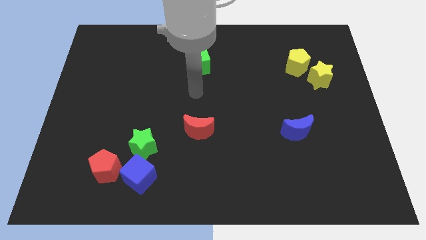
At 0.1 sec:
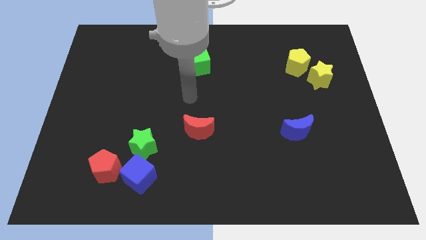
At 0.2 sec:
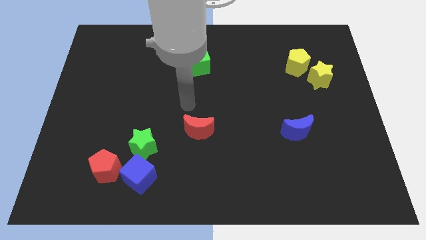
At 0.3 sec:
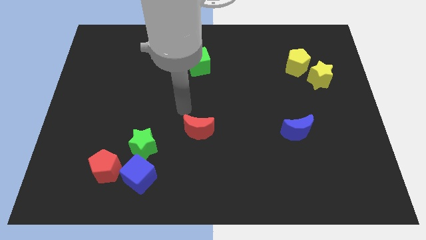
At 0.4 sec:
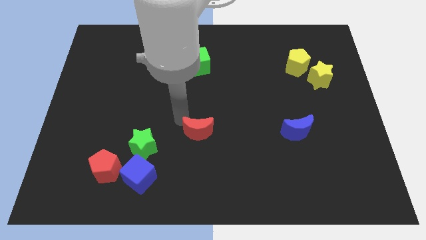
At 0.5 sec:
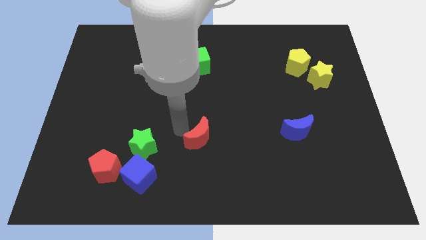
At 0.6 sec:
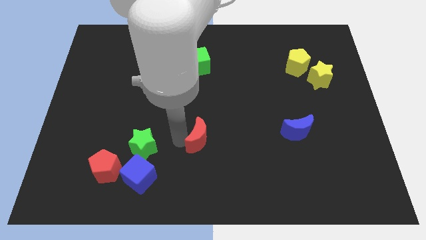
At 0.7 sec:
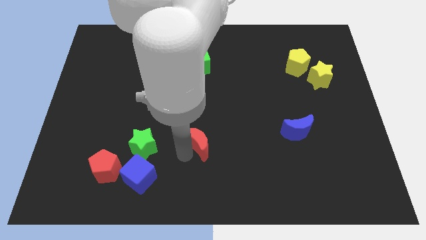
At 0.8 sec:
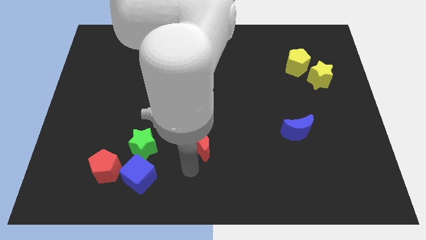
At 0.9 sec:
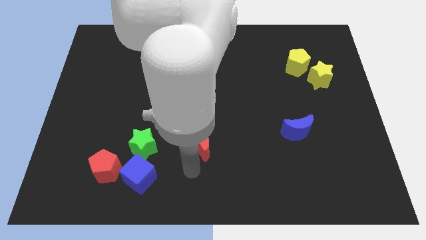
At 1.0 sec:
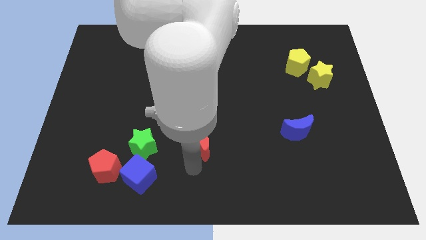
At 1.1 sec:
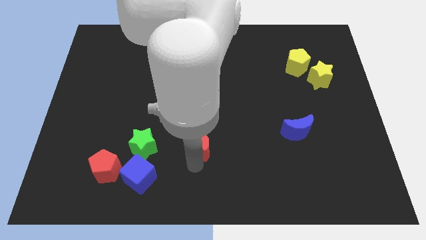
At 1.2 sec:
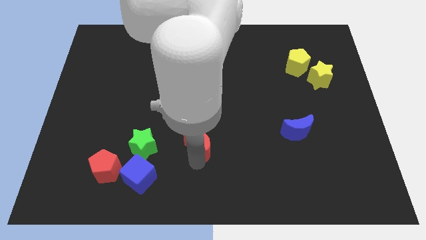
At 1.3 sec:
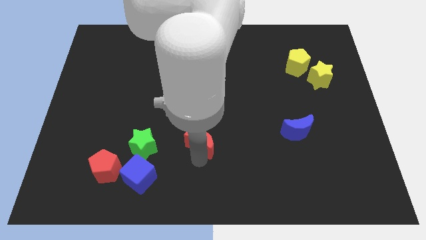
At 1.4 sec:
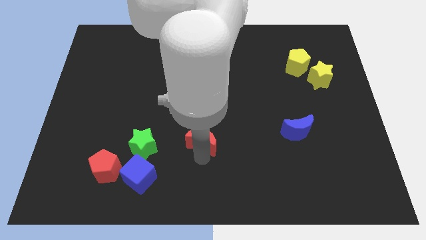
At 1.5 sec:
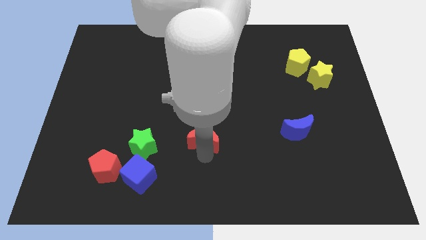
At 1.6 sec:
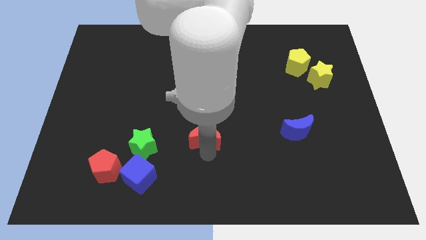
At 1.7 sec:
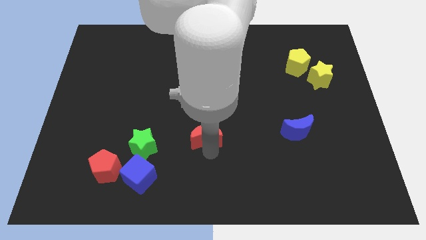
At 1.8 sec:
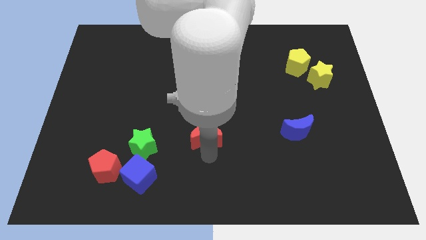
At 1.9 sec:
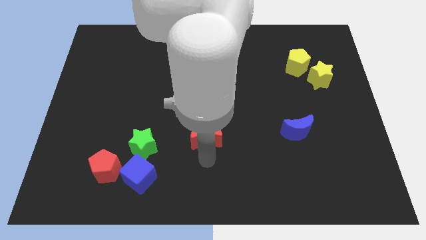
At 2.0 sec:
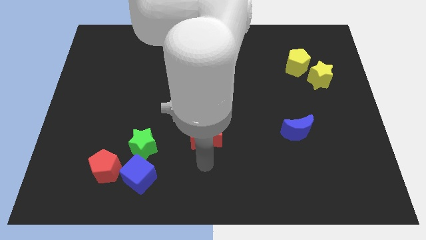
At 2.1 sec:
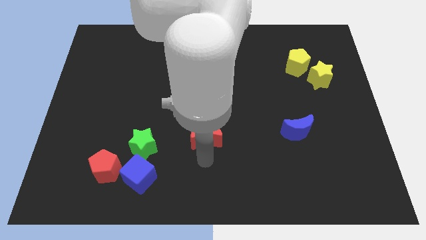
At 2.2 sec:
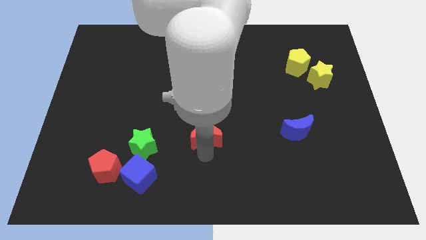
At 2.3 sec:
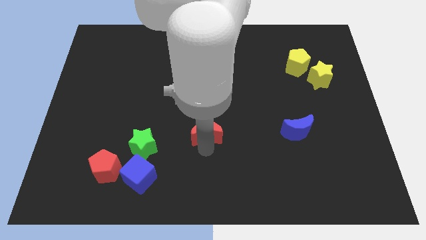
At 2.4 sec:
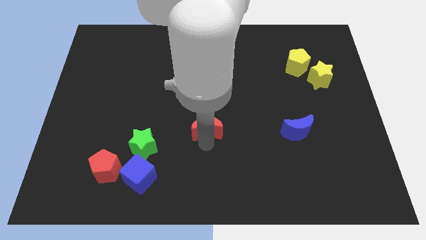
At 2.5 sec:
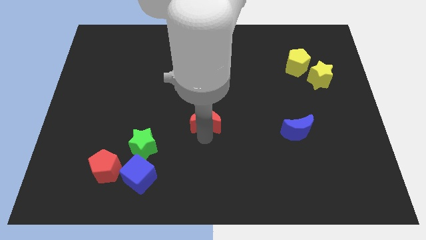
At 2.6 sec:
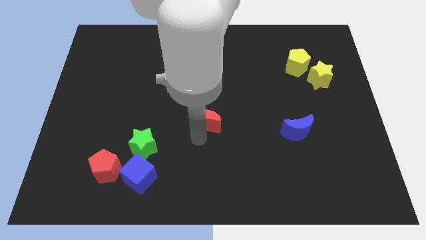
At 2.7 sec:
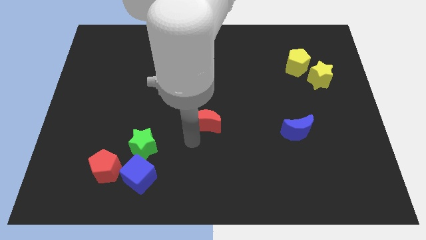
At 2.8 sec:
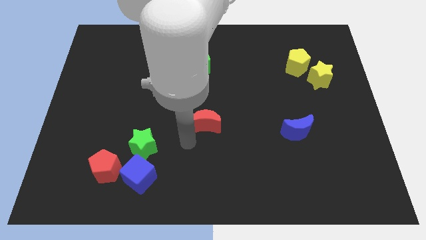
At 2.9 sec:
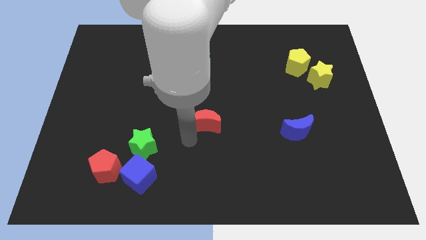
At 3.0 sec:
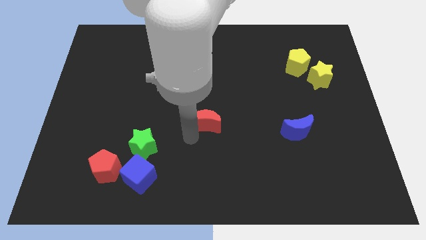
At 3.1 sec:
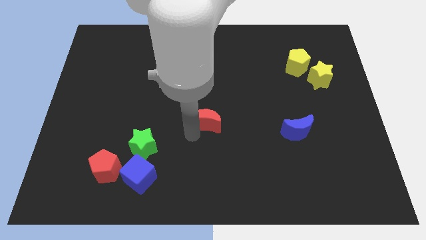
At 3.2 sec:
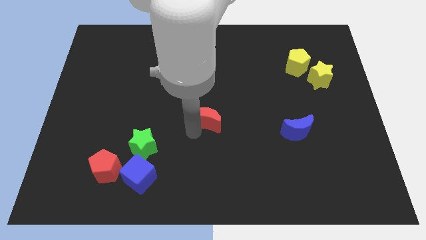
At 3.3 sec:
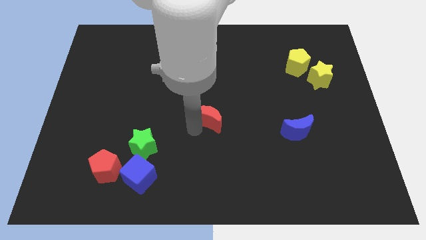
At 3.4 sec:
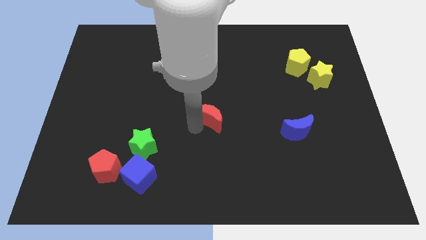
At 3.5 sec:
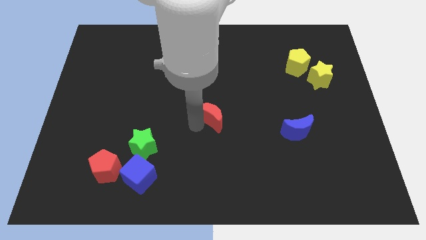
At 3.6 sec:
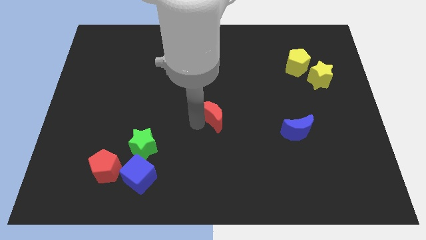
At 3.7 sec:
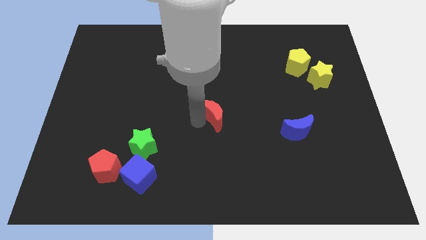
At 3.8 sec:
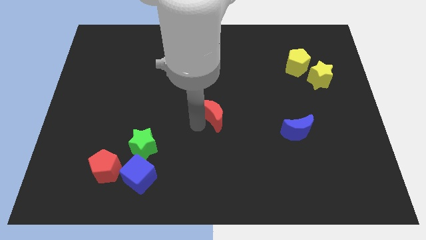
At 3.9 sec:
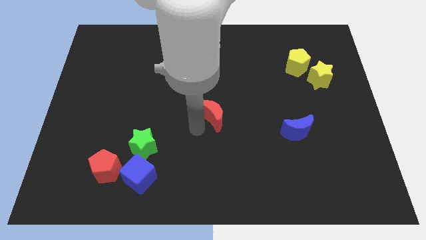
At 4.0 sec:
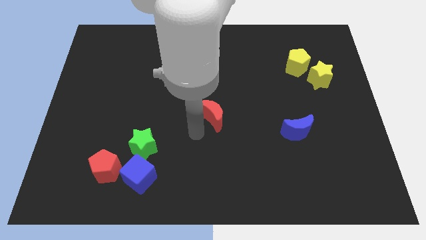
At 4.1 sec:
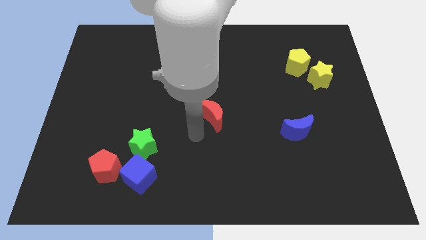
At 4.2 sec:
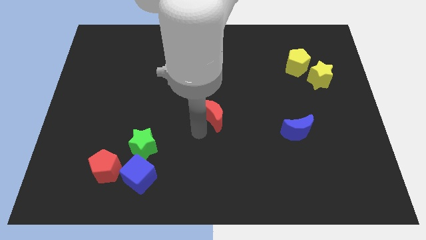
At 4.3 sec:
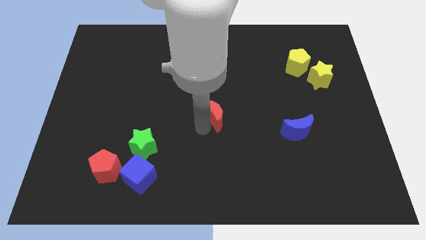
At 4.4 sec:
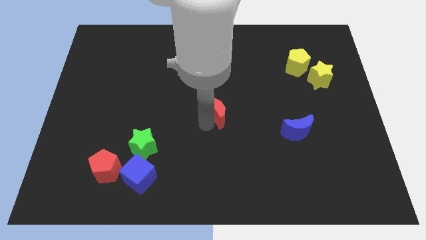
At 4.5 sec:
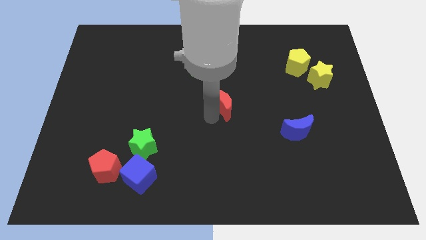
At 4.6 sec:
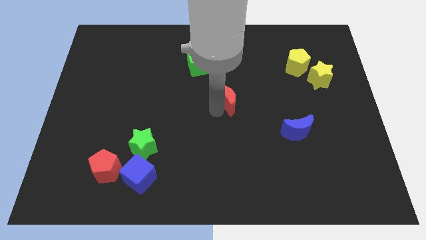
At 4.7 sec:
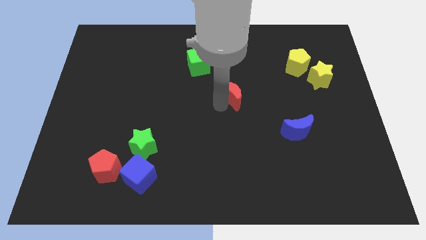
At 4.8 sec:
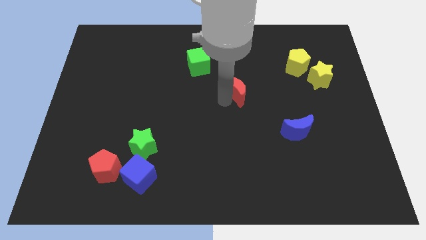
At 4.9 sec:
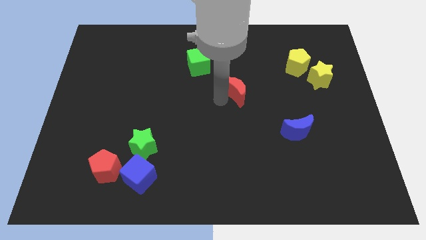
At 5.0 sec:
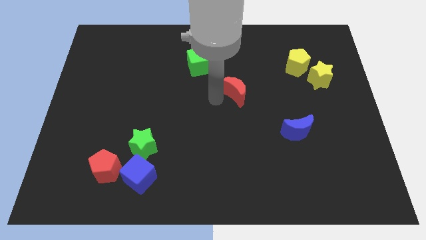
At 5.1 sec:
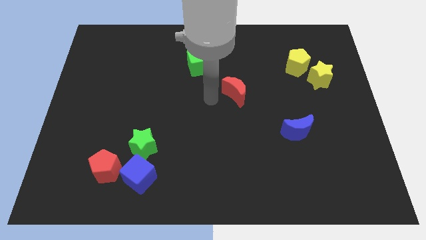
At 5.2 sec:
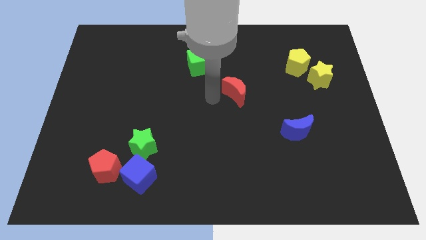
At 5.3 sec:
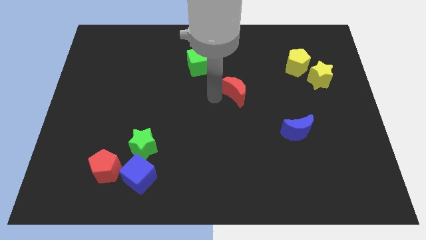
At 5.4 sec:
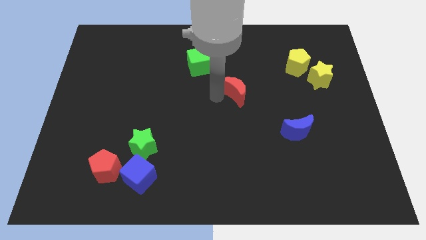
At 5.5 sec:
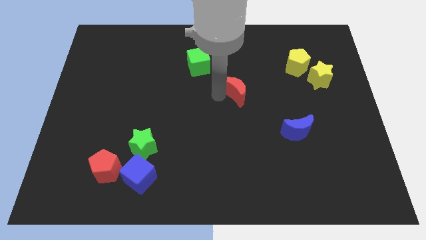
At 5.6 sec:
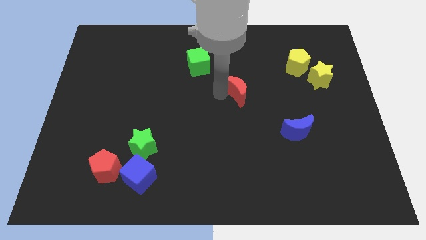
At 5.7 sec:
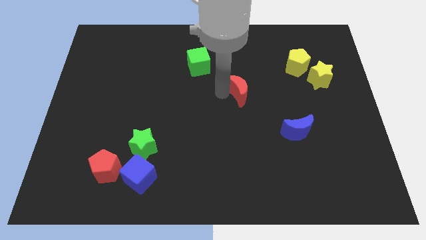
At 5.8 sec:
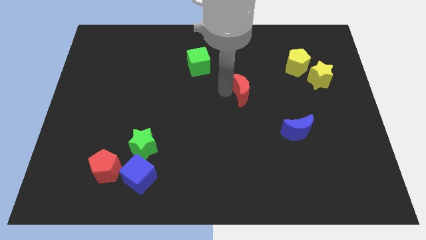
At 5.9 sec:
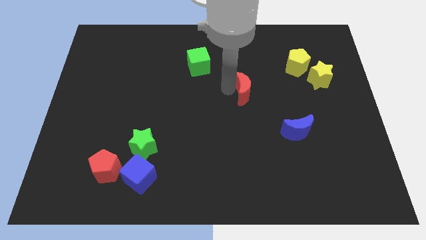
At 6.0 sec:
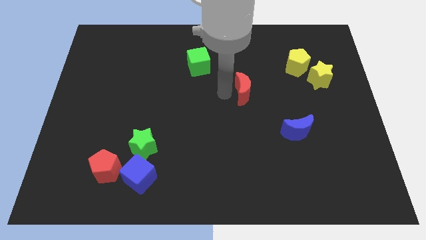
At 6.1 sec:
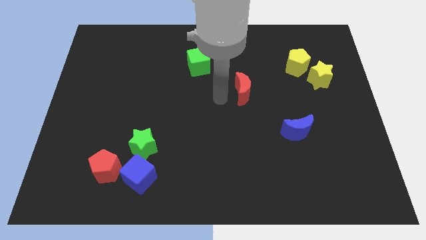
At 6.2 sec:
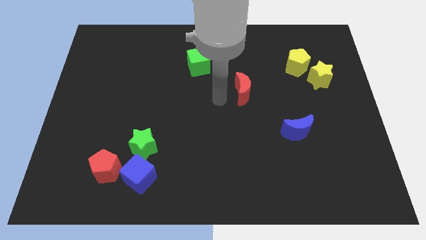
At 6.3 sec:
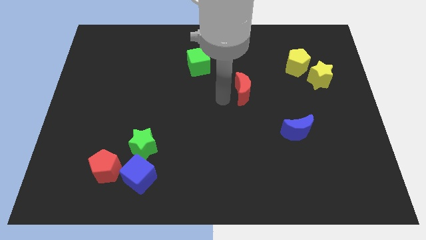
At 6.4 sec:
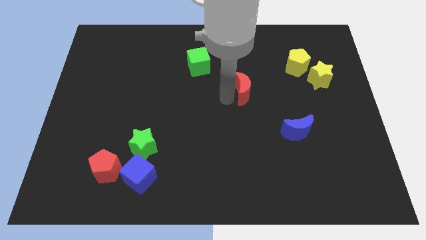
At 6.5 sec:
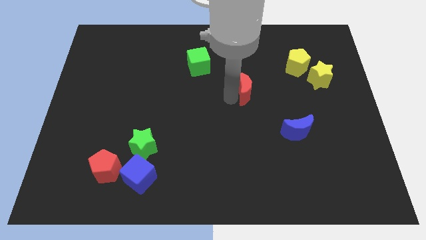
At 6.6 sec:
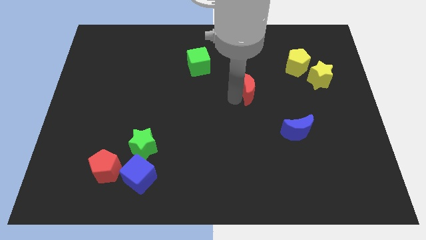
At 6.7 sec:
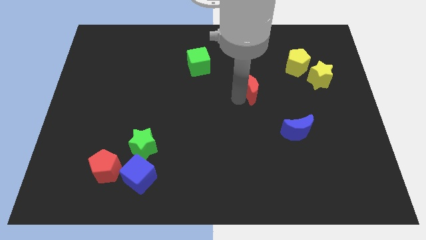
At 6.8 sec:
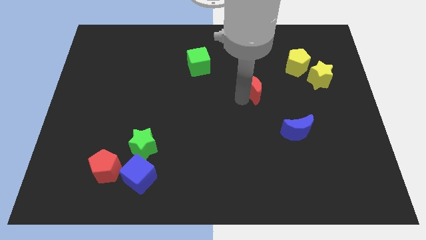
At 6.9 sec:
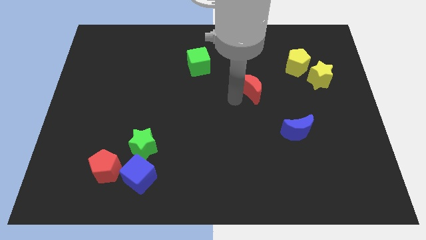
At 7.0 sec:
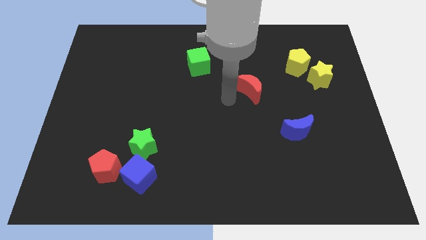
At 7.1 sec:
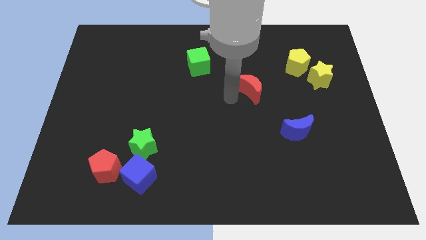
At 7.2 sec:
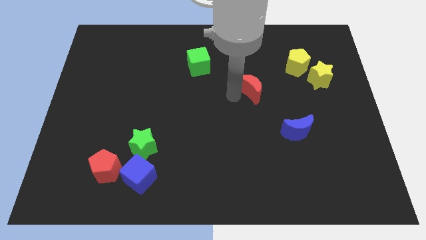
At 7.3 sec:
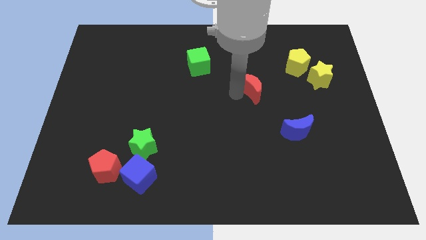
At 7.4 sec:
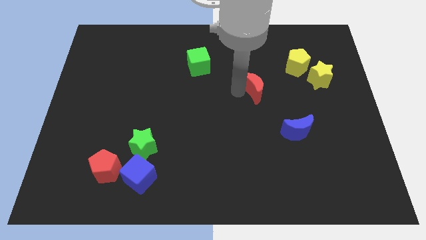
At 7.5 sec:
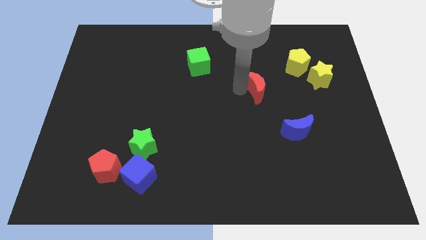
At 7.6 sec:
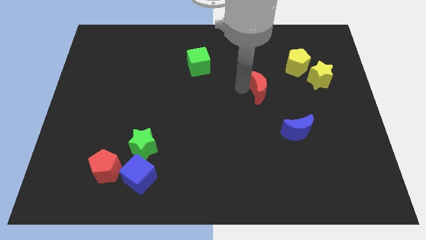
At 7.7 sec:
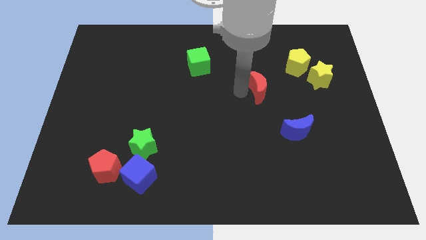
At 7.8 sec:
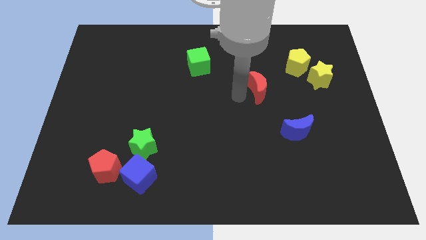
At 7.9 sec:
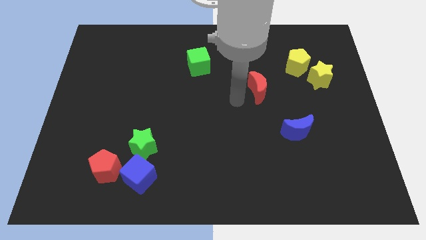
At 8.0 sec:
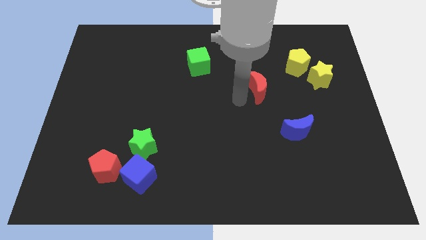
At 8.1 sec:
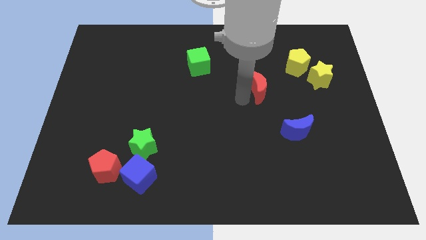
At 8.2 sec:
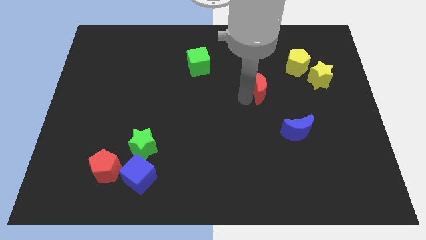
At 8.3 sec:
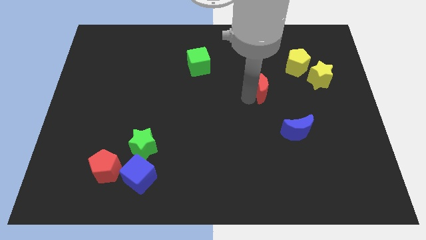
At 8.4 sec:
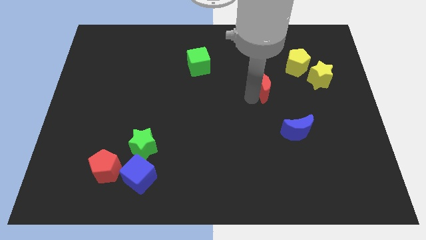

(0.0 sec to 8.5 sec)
push the red moon to the left side of the yellow star
